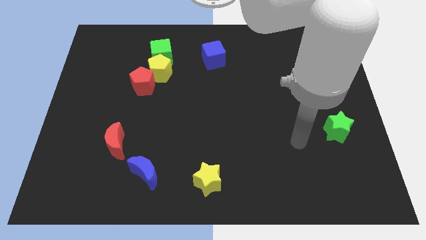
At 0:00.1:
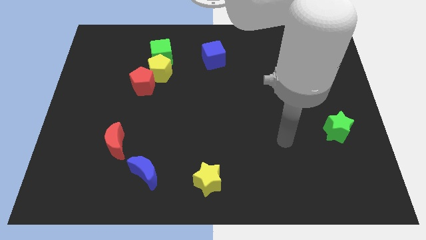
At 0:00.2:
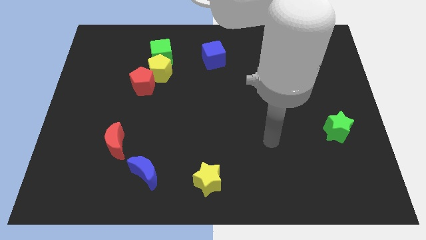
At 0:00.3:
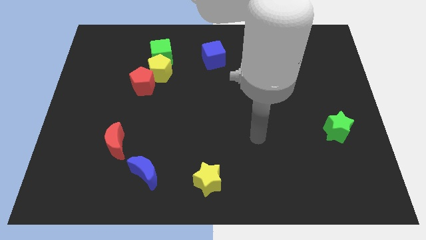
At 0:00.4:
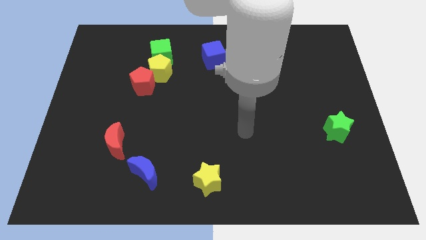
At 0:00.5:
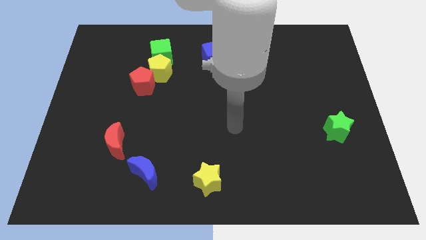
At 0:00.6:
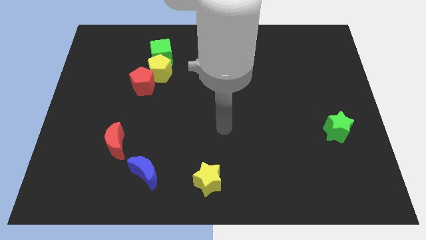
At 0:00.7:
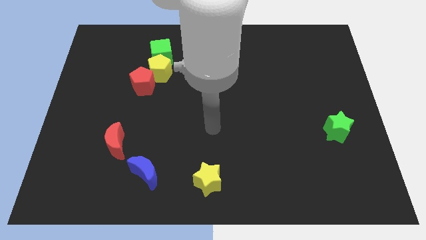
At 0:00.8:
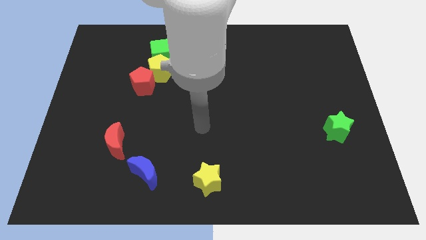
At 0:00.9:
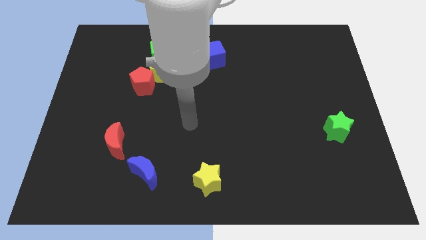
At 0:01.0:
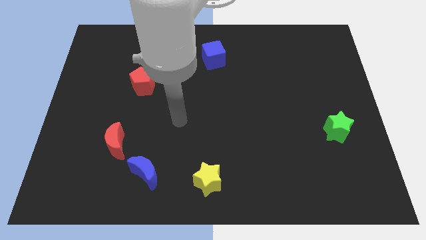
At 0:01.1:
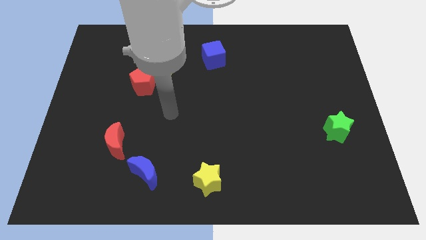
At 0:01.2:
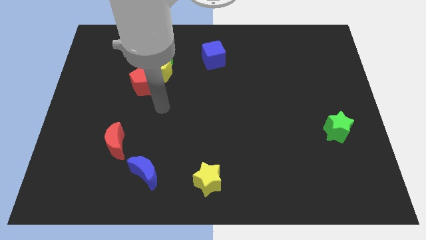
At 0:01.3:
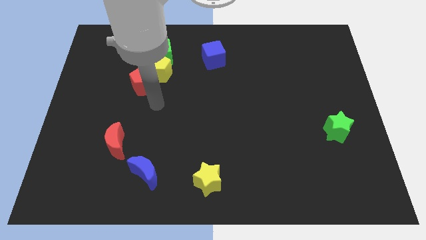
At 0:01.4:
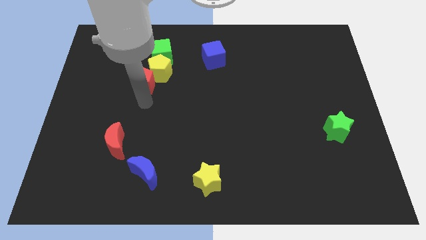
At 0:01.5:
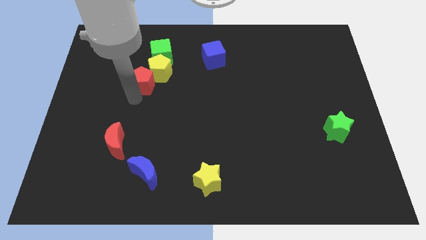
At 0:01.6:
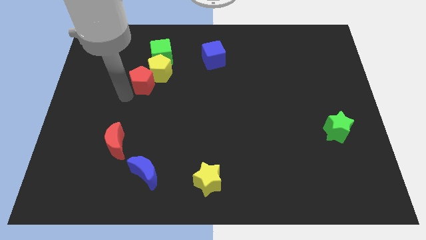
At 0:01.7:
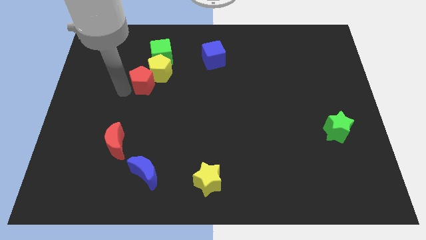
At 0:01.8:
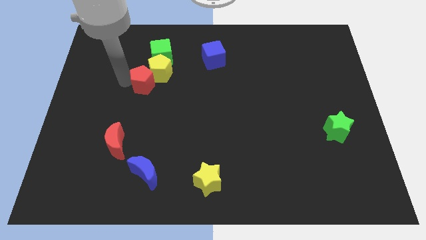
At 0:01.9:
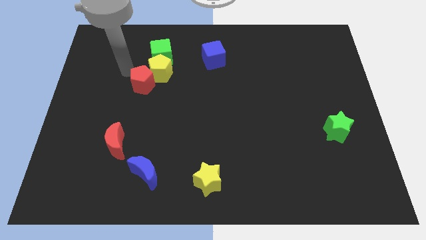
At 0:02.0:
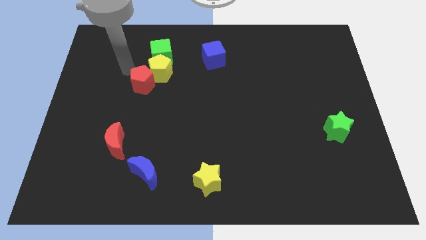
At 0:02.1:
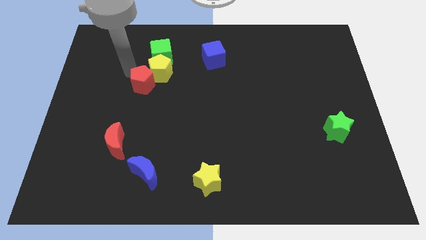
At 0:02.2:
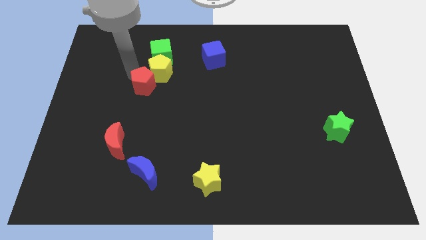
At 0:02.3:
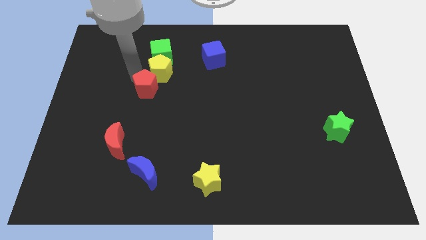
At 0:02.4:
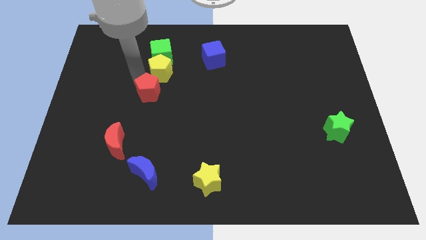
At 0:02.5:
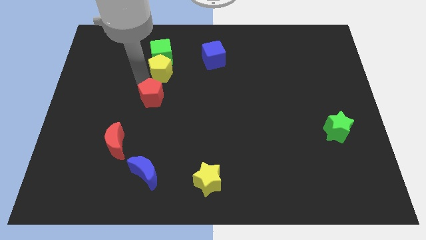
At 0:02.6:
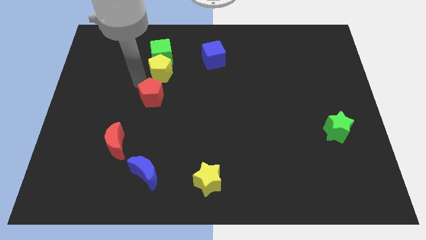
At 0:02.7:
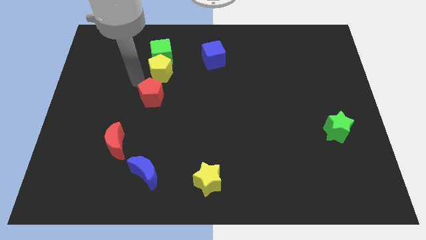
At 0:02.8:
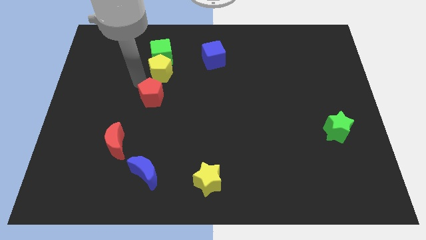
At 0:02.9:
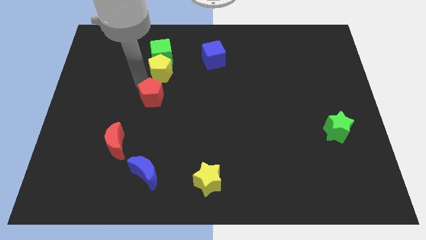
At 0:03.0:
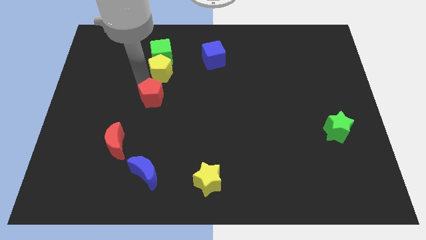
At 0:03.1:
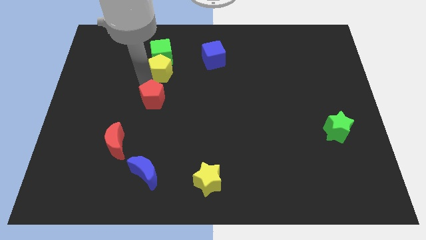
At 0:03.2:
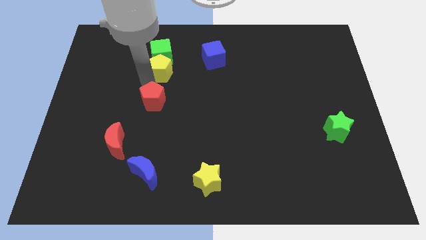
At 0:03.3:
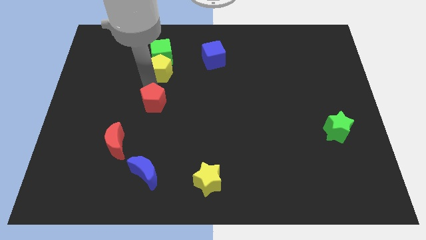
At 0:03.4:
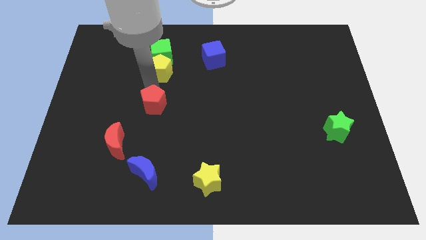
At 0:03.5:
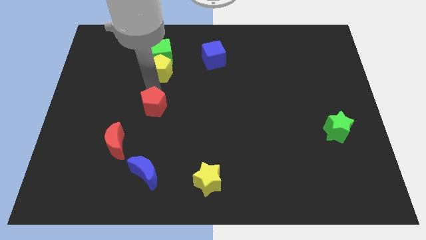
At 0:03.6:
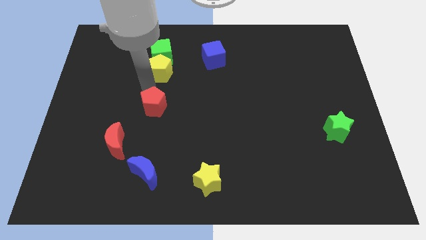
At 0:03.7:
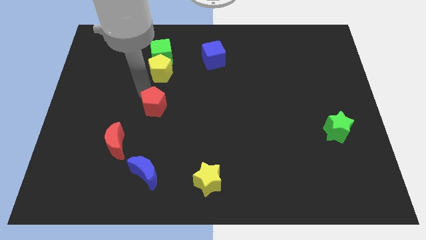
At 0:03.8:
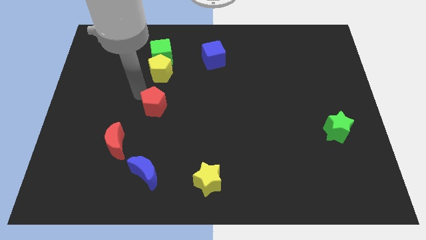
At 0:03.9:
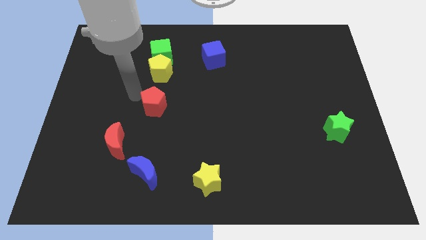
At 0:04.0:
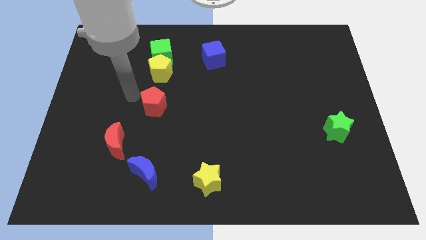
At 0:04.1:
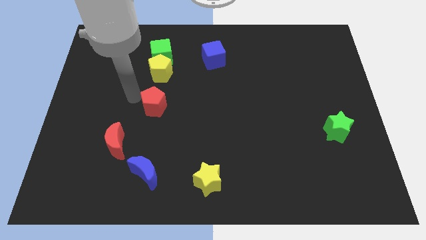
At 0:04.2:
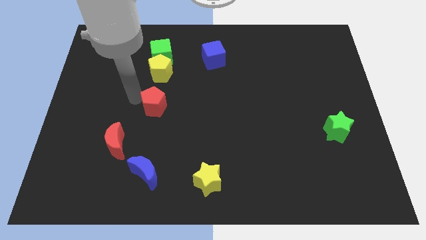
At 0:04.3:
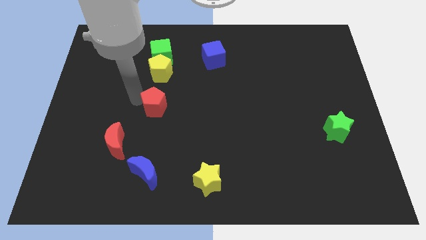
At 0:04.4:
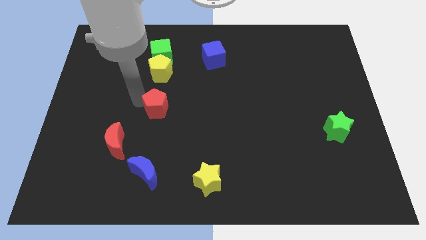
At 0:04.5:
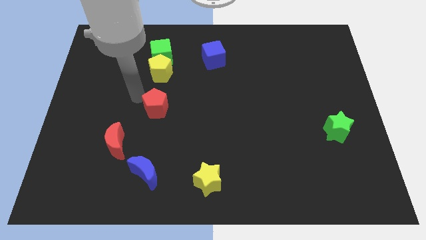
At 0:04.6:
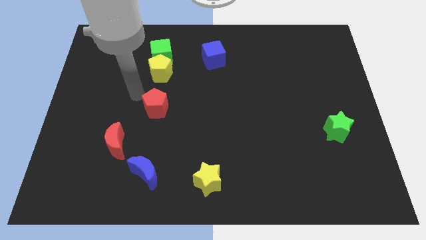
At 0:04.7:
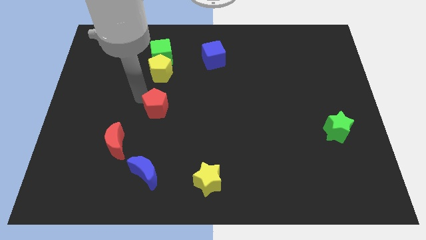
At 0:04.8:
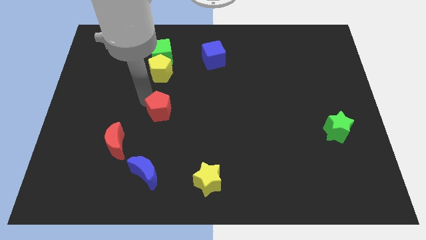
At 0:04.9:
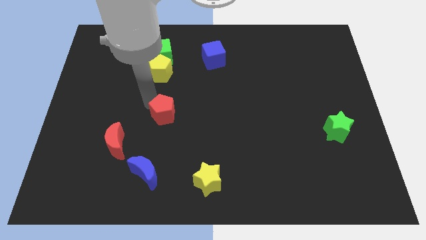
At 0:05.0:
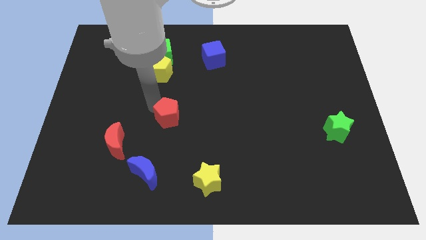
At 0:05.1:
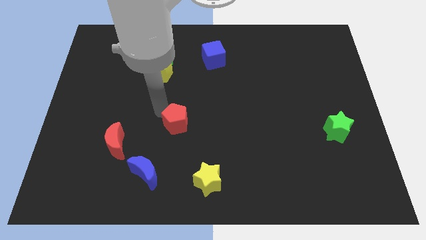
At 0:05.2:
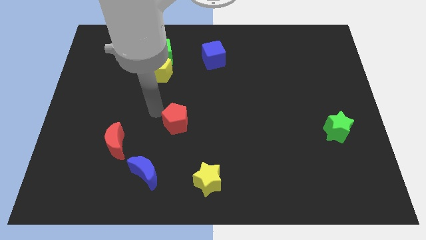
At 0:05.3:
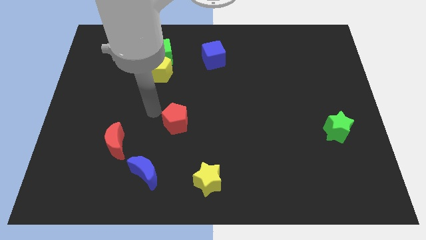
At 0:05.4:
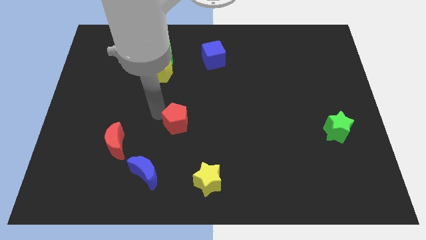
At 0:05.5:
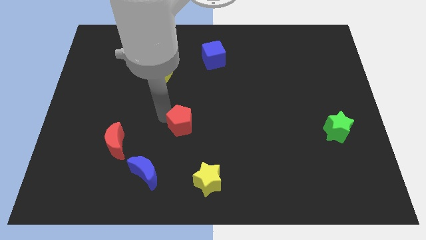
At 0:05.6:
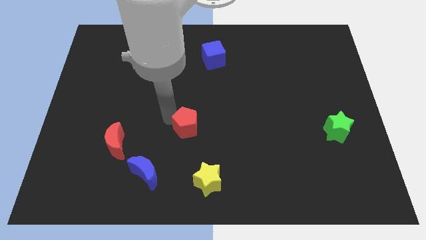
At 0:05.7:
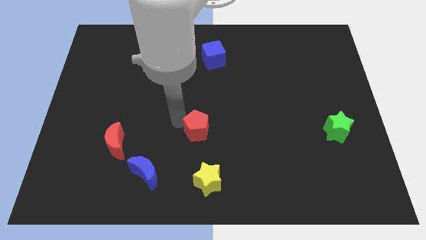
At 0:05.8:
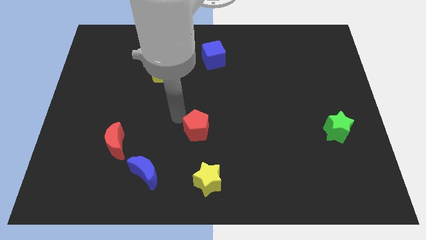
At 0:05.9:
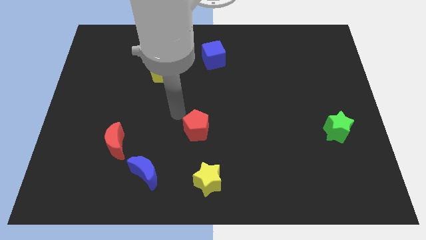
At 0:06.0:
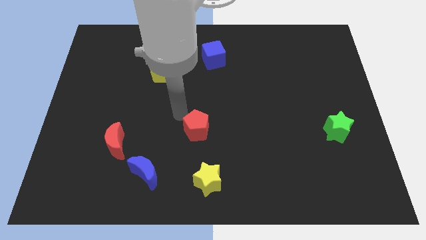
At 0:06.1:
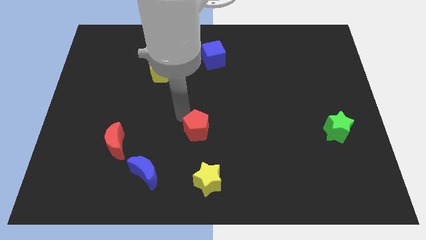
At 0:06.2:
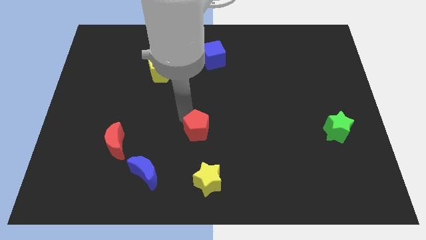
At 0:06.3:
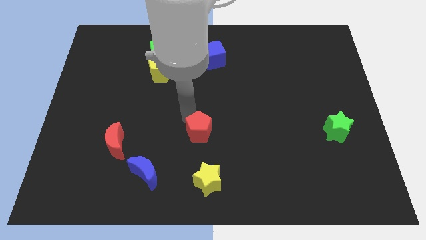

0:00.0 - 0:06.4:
push the red pentagon down and then right

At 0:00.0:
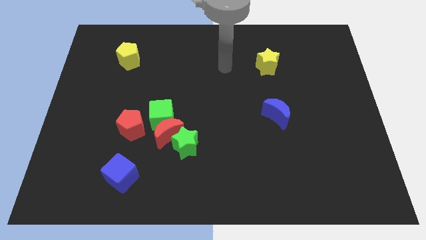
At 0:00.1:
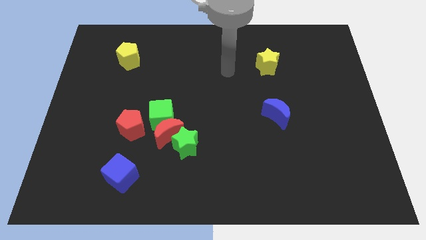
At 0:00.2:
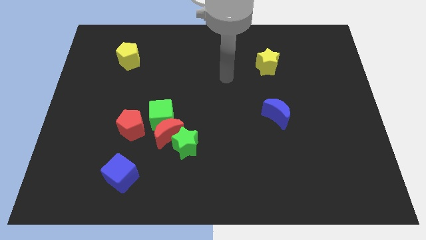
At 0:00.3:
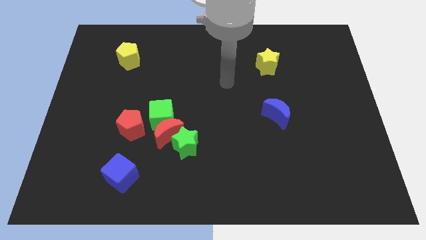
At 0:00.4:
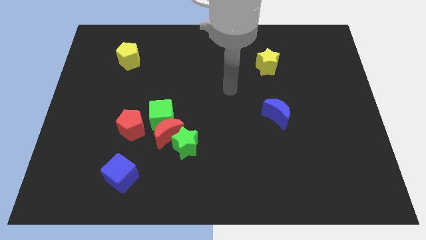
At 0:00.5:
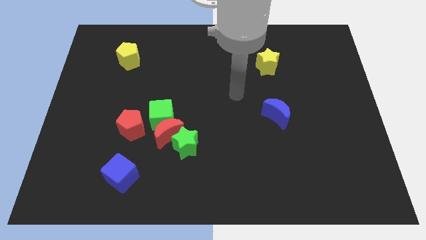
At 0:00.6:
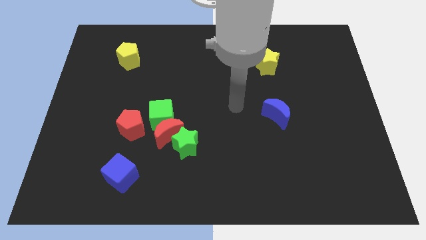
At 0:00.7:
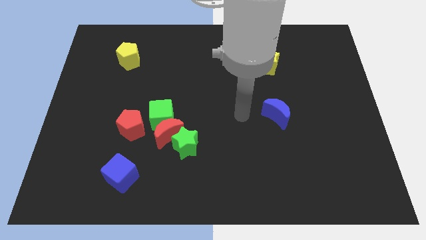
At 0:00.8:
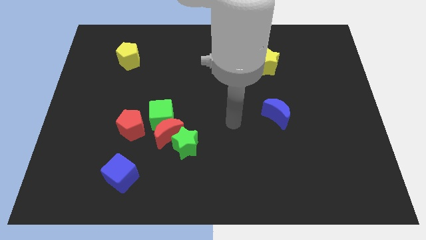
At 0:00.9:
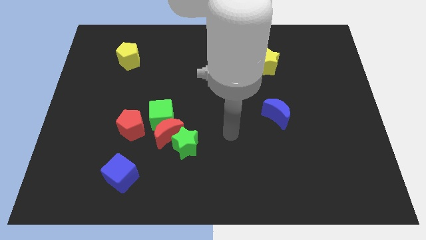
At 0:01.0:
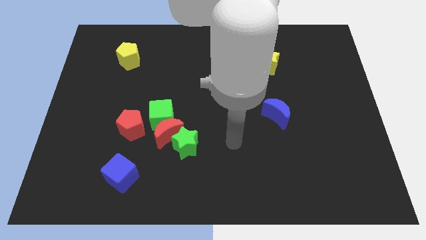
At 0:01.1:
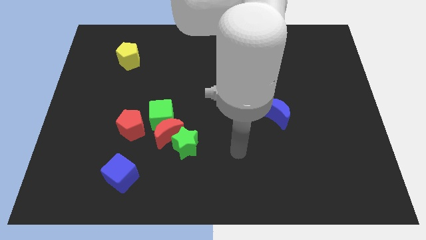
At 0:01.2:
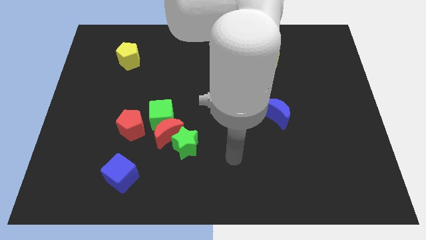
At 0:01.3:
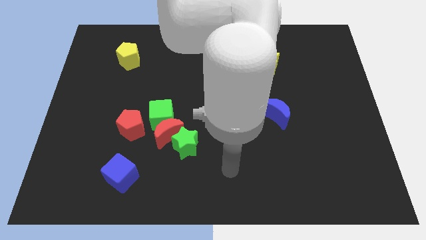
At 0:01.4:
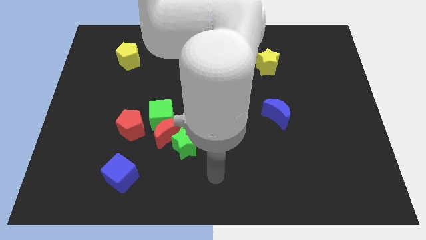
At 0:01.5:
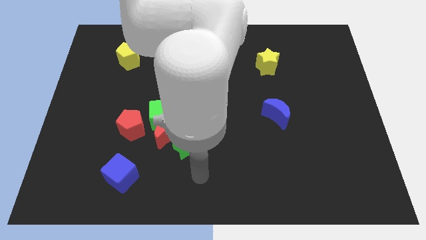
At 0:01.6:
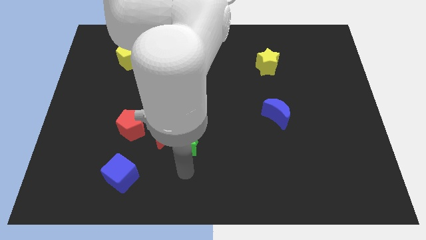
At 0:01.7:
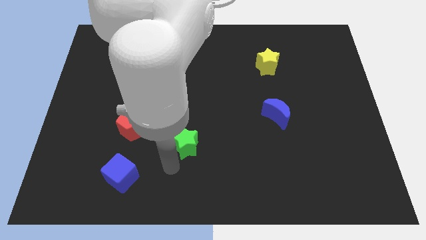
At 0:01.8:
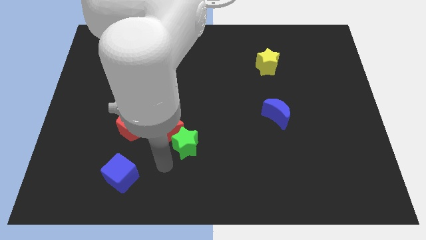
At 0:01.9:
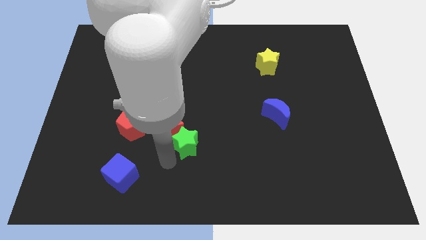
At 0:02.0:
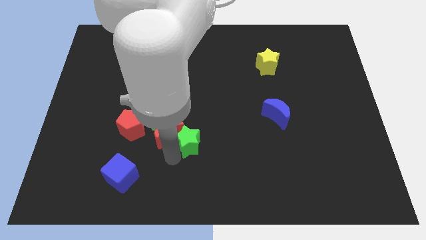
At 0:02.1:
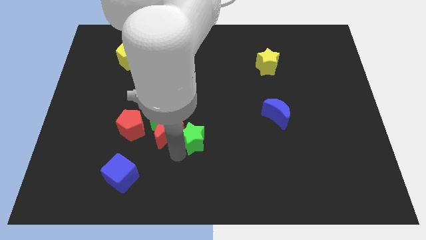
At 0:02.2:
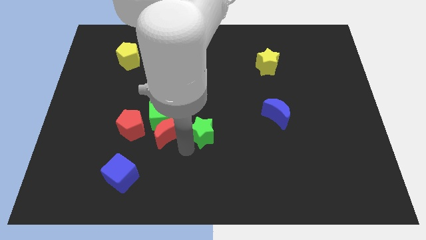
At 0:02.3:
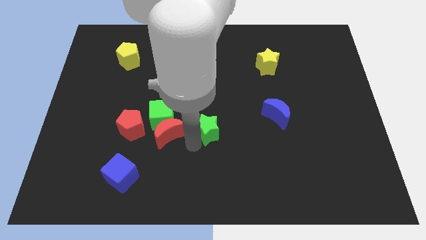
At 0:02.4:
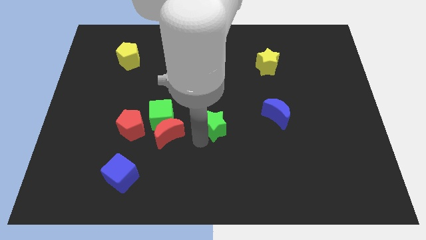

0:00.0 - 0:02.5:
push the green star a little bit upwards and then to the right
